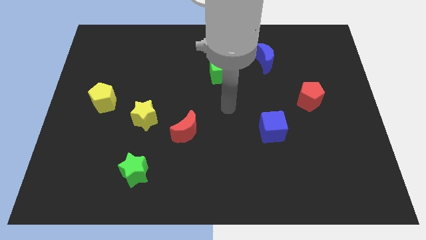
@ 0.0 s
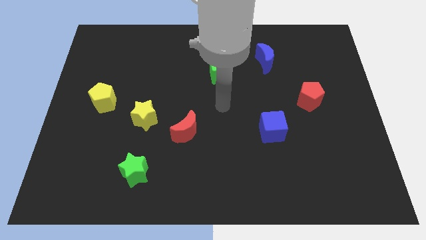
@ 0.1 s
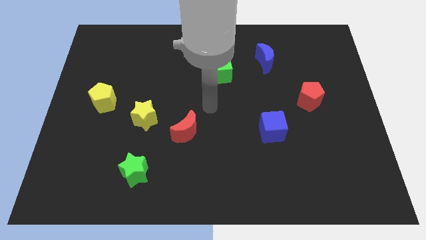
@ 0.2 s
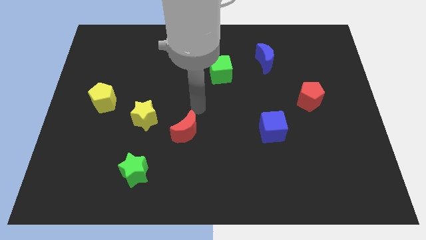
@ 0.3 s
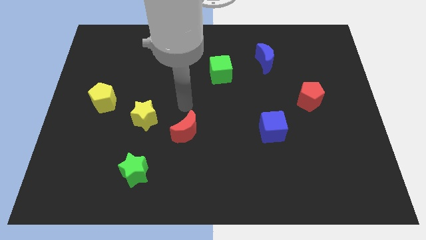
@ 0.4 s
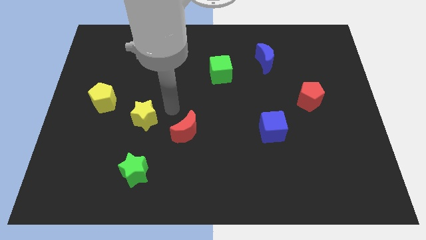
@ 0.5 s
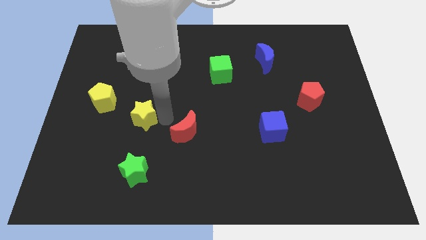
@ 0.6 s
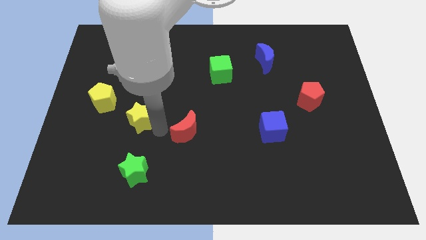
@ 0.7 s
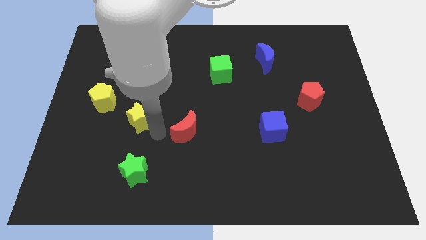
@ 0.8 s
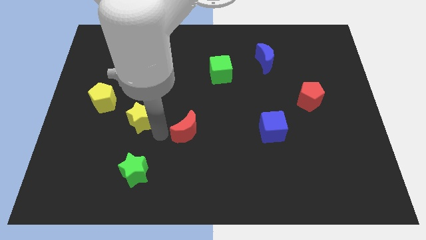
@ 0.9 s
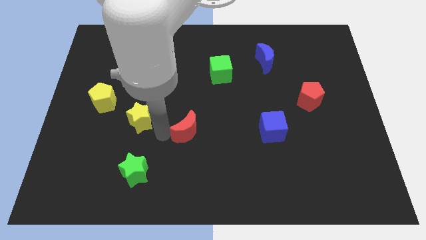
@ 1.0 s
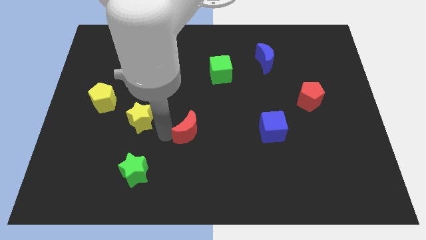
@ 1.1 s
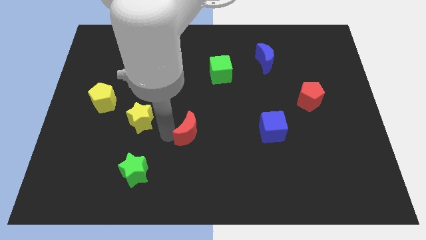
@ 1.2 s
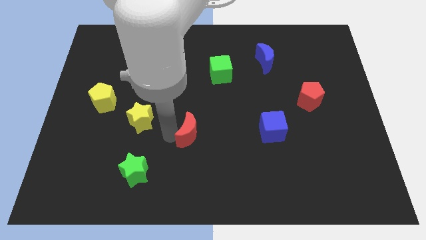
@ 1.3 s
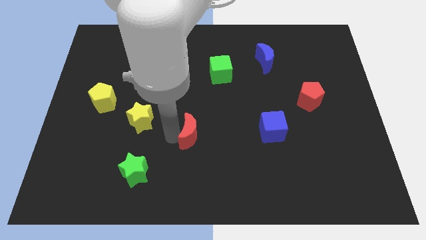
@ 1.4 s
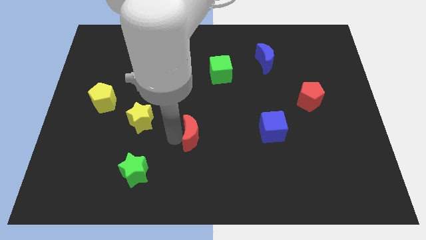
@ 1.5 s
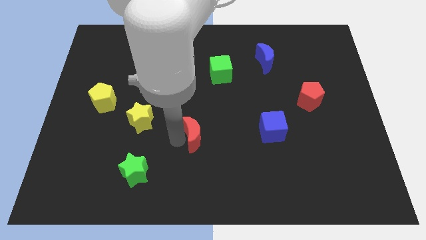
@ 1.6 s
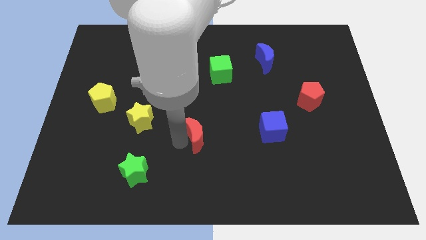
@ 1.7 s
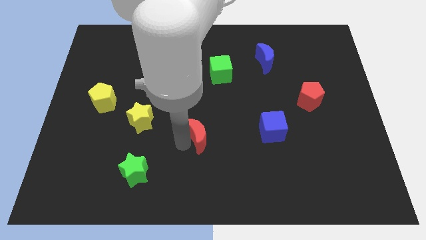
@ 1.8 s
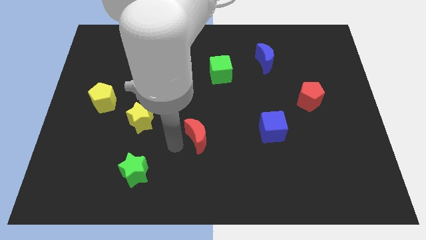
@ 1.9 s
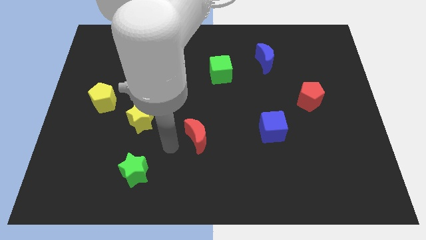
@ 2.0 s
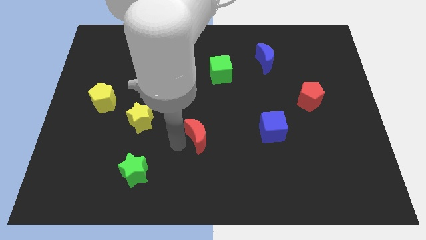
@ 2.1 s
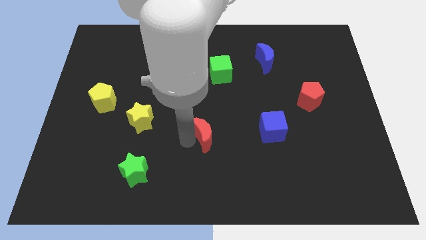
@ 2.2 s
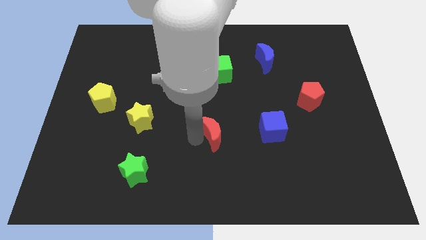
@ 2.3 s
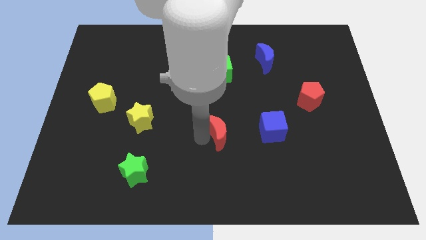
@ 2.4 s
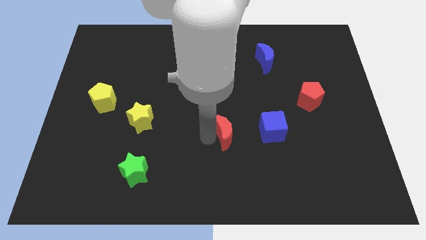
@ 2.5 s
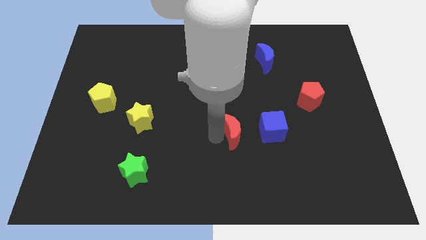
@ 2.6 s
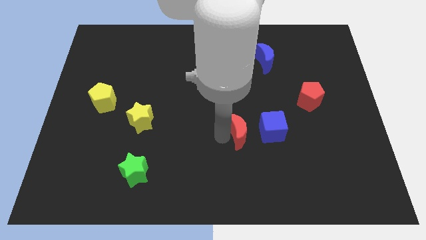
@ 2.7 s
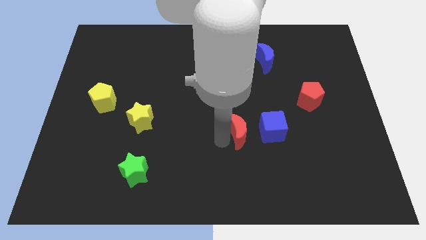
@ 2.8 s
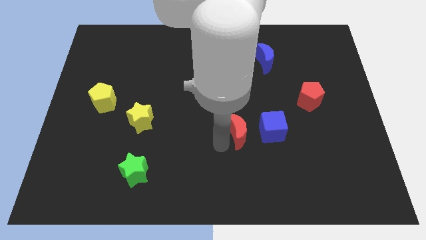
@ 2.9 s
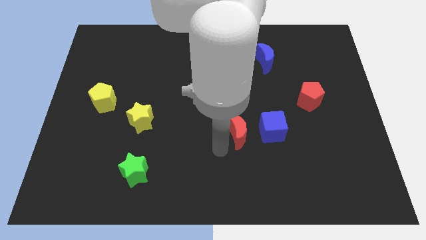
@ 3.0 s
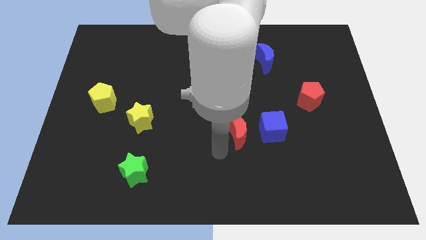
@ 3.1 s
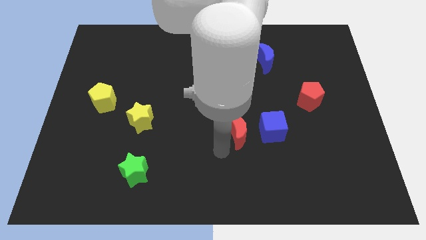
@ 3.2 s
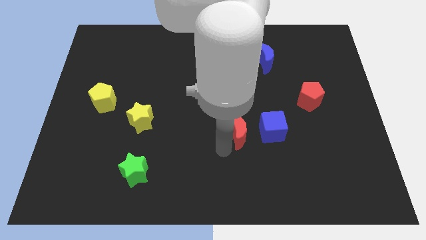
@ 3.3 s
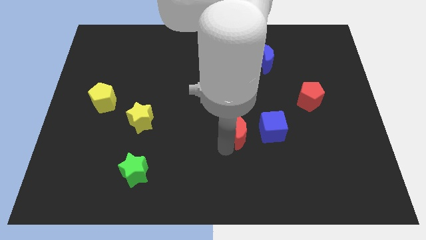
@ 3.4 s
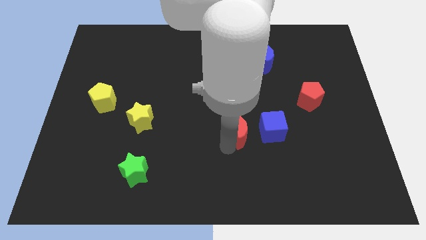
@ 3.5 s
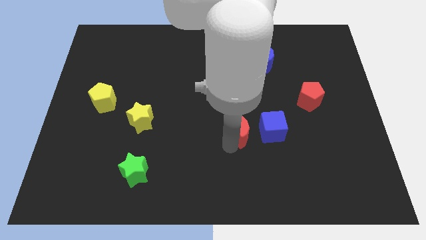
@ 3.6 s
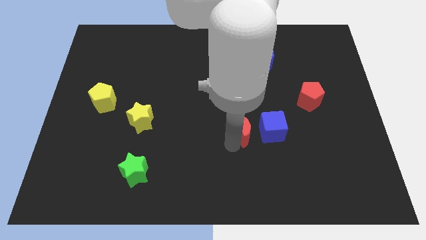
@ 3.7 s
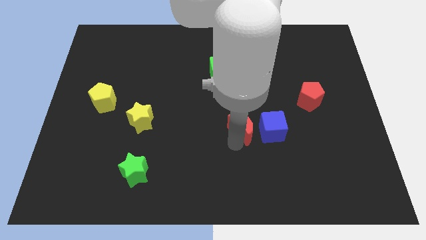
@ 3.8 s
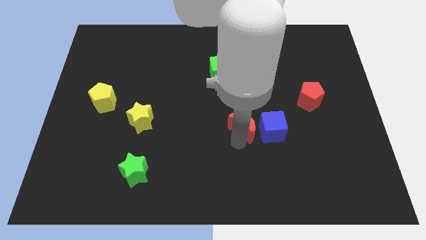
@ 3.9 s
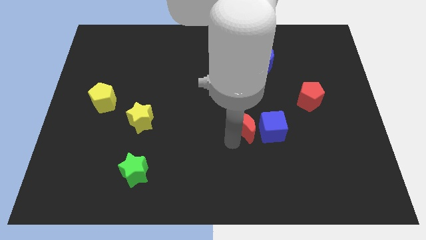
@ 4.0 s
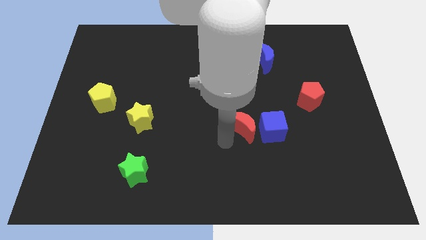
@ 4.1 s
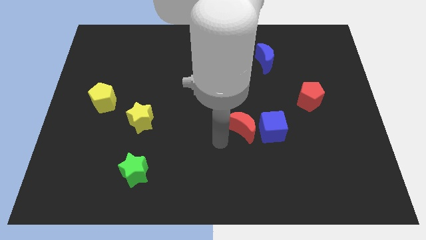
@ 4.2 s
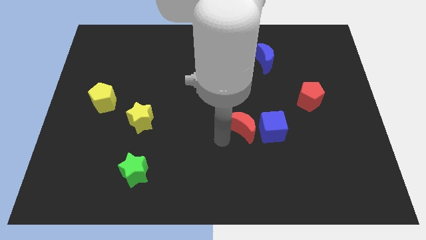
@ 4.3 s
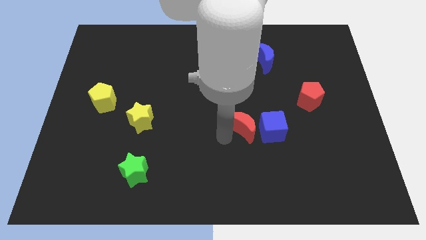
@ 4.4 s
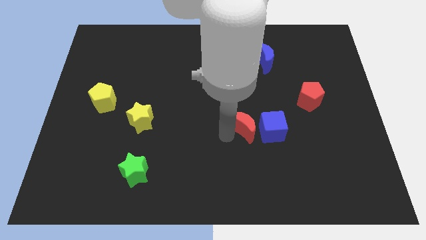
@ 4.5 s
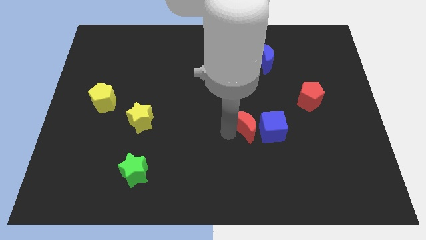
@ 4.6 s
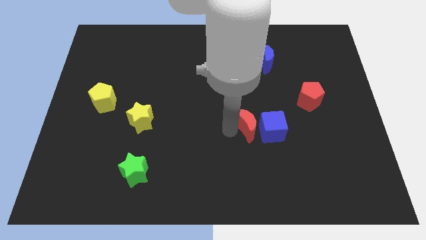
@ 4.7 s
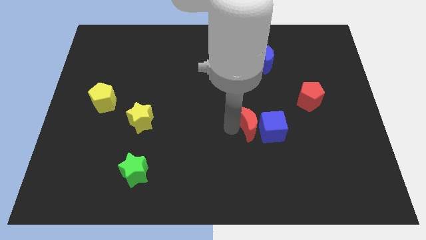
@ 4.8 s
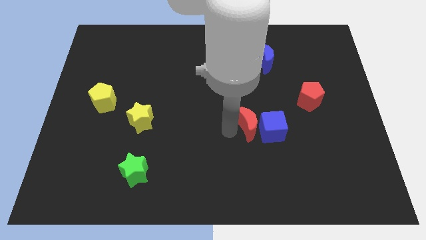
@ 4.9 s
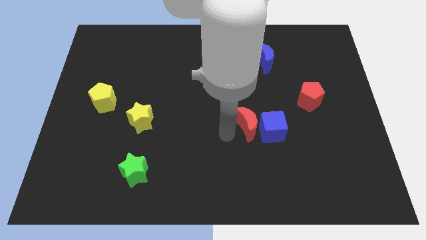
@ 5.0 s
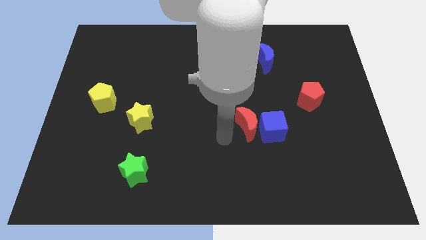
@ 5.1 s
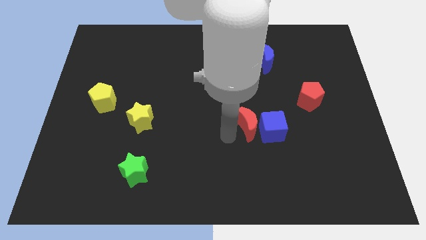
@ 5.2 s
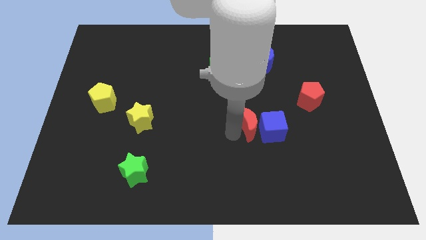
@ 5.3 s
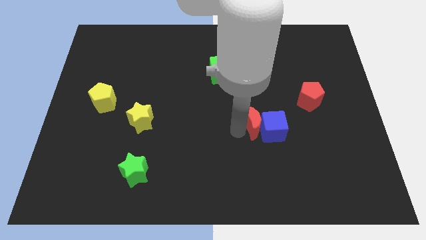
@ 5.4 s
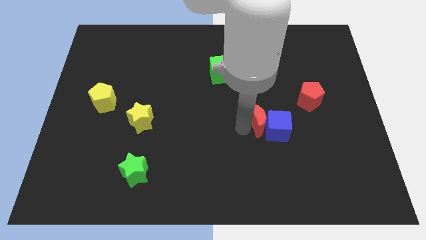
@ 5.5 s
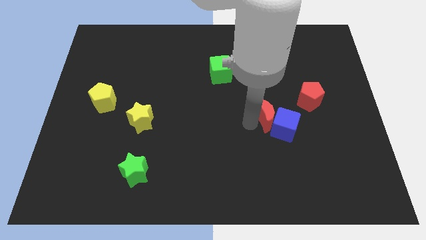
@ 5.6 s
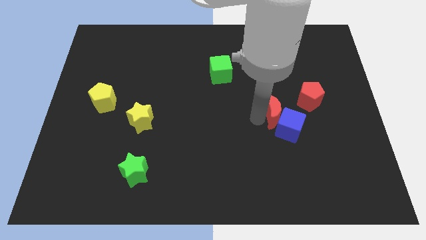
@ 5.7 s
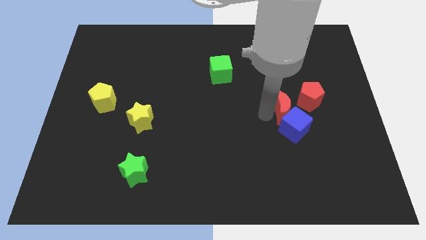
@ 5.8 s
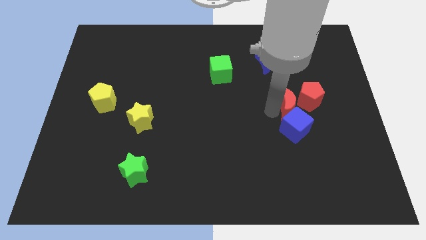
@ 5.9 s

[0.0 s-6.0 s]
slide the red moon to the top right side of the blue cube

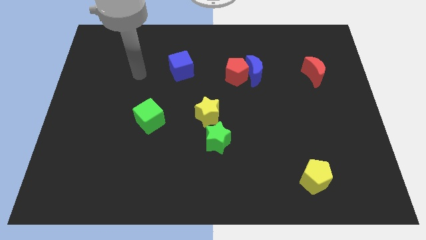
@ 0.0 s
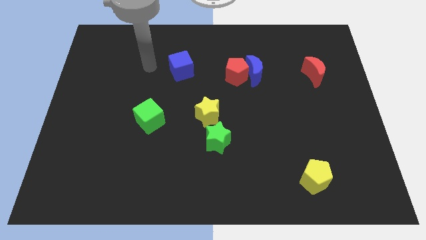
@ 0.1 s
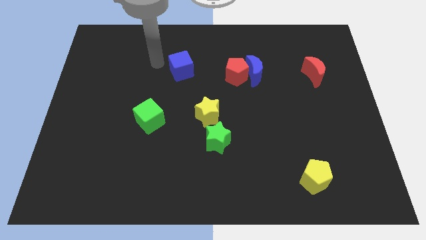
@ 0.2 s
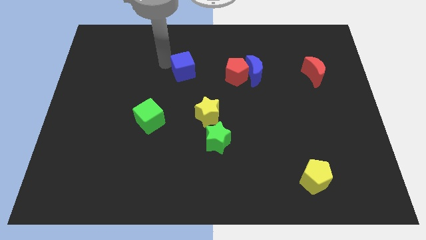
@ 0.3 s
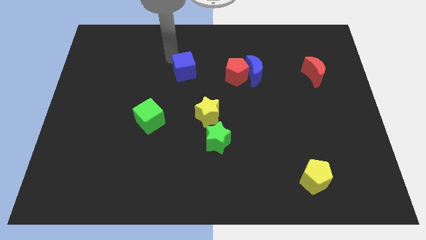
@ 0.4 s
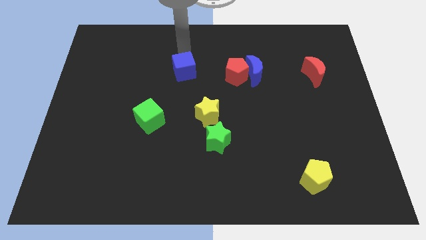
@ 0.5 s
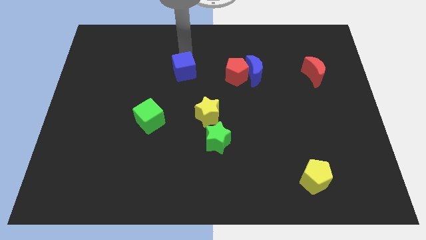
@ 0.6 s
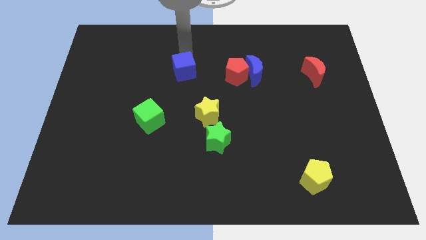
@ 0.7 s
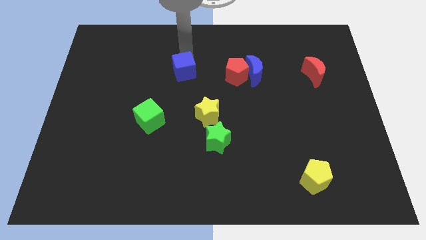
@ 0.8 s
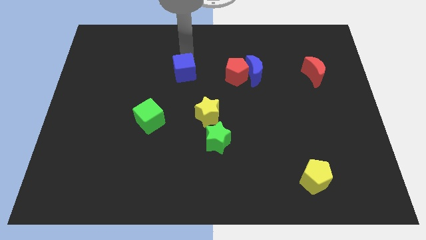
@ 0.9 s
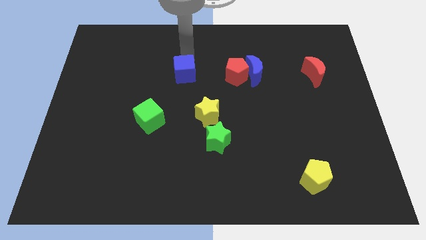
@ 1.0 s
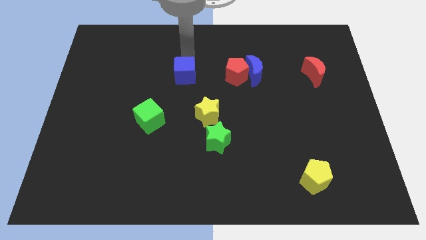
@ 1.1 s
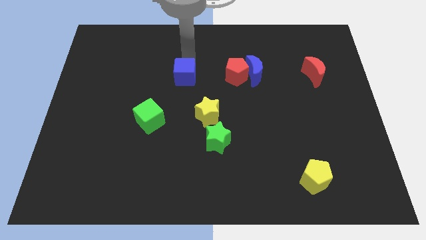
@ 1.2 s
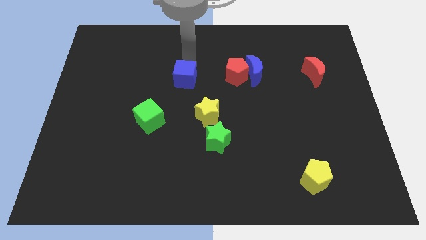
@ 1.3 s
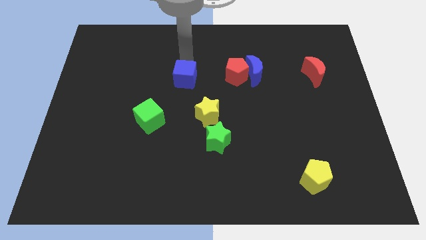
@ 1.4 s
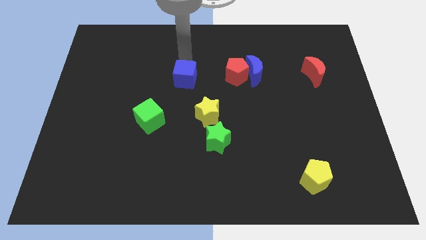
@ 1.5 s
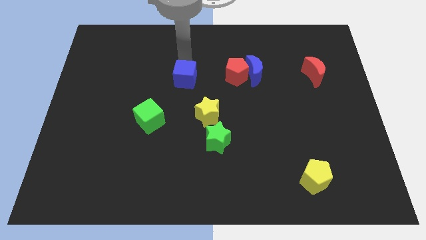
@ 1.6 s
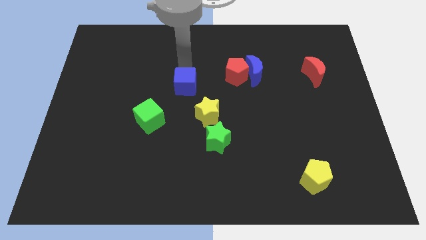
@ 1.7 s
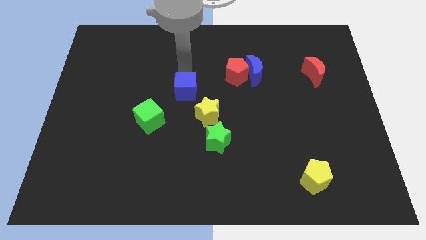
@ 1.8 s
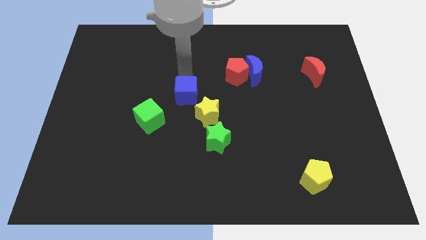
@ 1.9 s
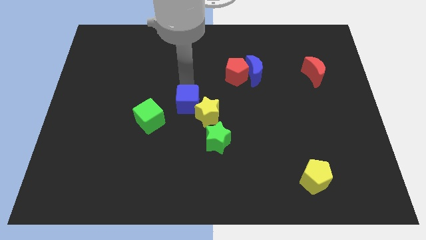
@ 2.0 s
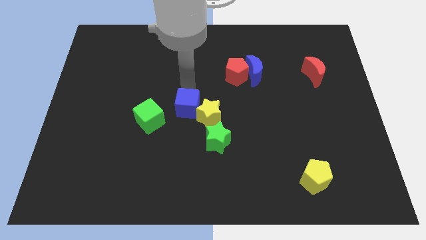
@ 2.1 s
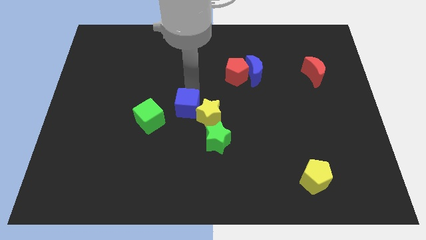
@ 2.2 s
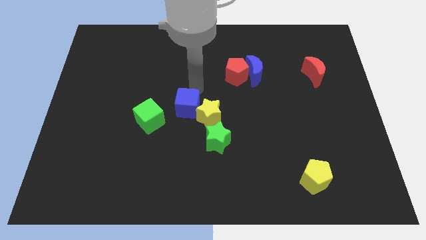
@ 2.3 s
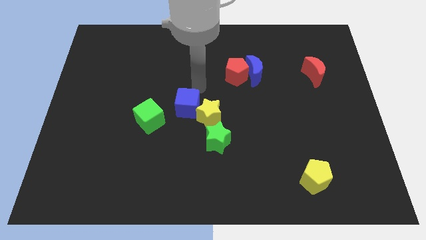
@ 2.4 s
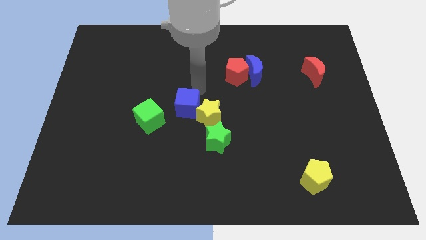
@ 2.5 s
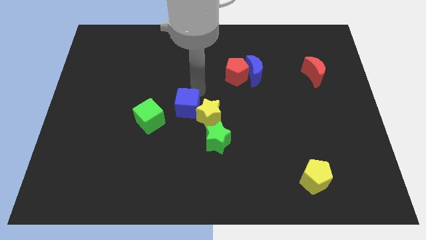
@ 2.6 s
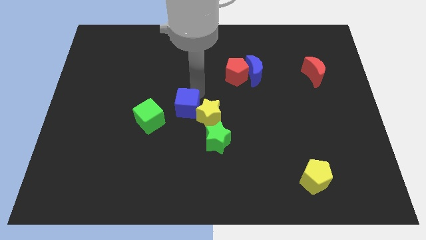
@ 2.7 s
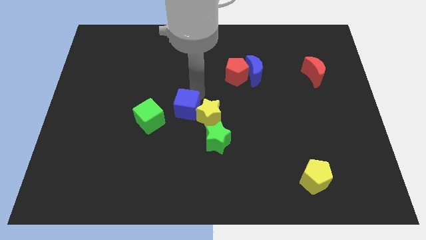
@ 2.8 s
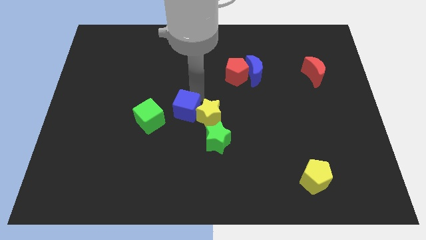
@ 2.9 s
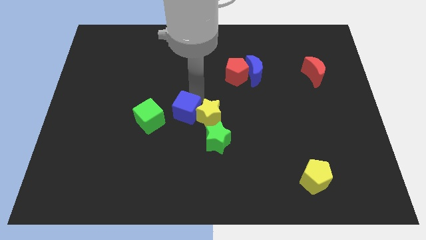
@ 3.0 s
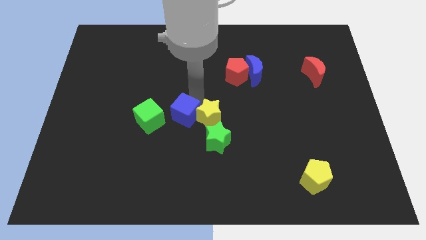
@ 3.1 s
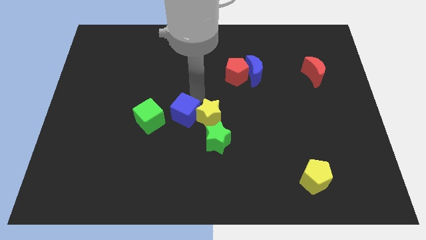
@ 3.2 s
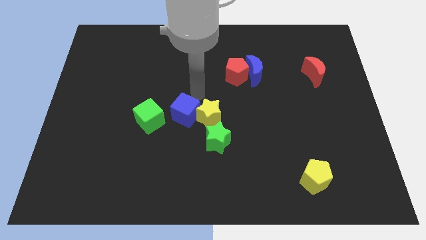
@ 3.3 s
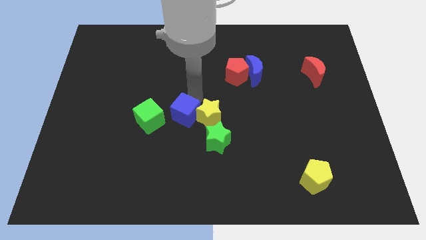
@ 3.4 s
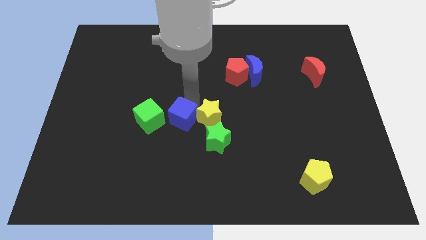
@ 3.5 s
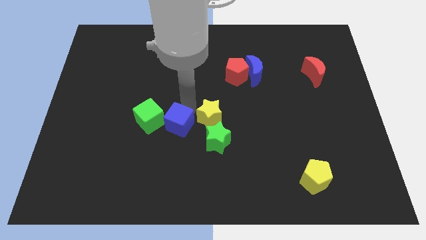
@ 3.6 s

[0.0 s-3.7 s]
slide the blue cube to the bottom right side of the green cube
